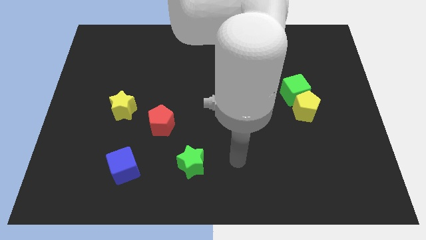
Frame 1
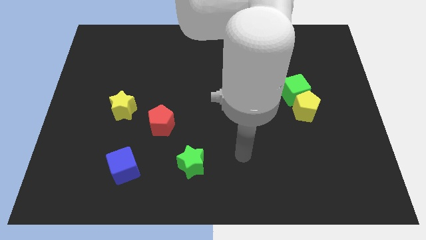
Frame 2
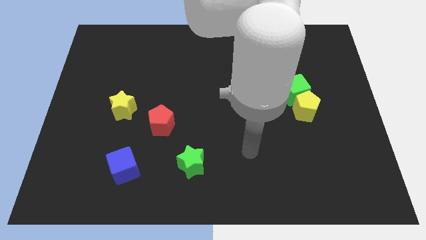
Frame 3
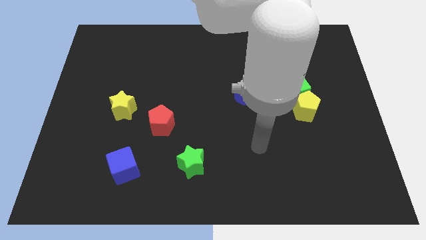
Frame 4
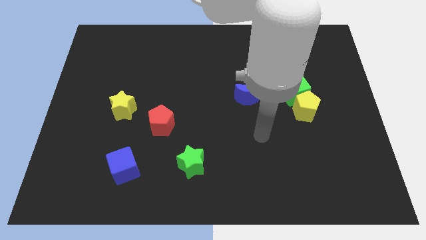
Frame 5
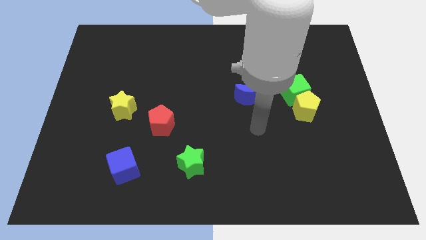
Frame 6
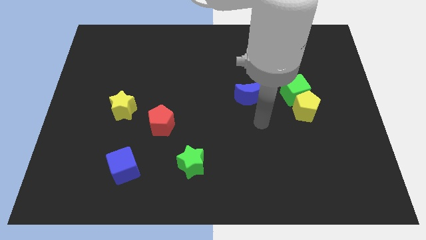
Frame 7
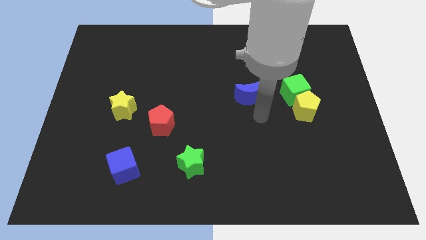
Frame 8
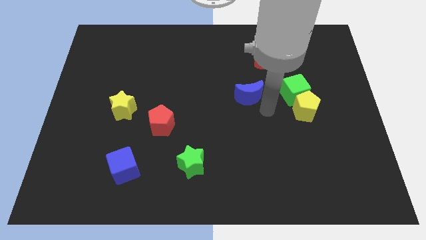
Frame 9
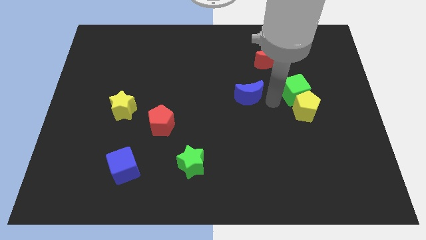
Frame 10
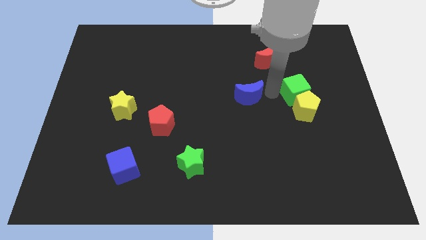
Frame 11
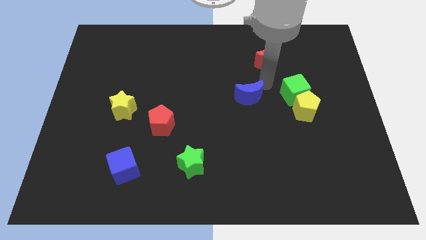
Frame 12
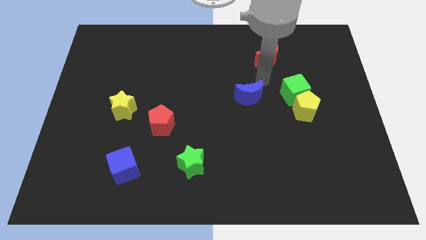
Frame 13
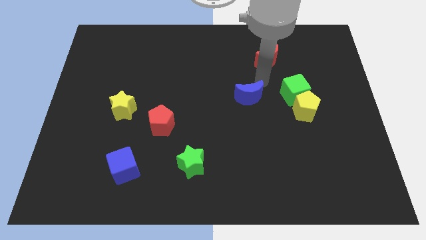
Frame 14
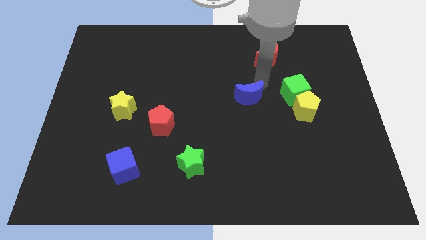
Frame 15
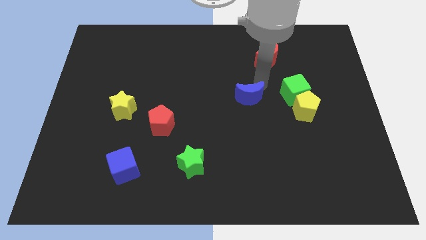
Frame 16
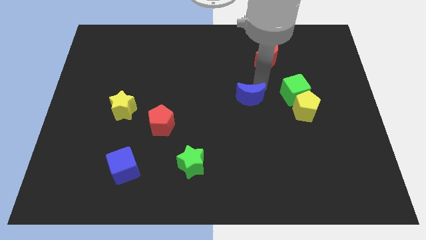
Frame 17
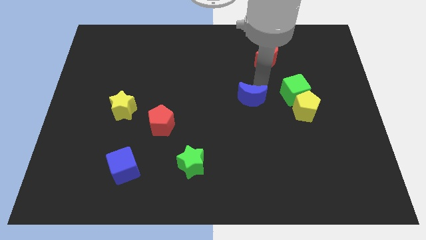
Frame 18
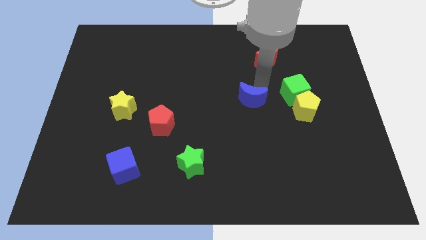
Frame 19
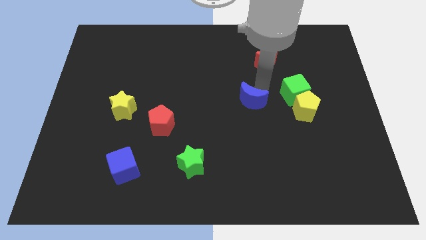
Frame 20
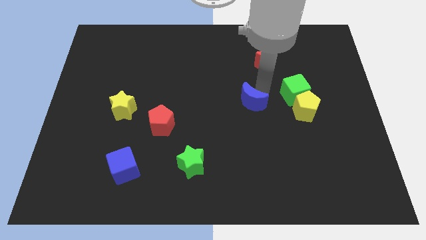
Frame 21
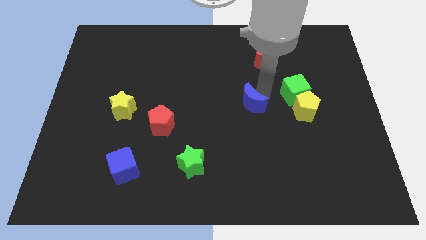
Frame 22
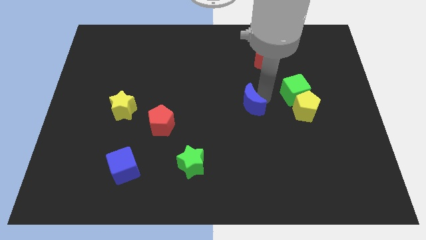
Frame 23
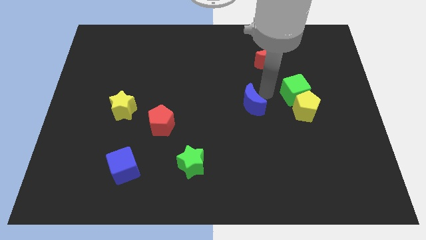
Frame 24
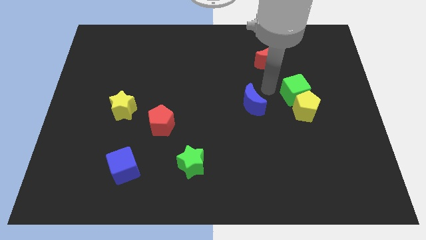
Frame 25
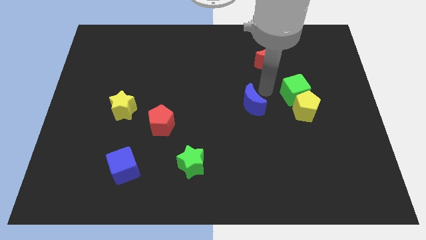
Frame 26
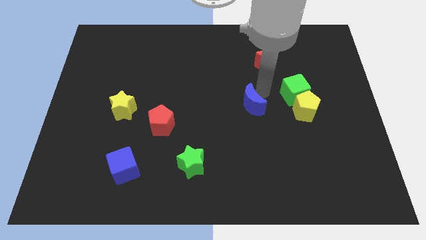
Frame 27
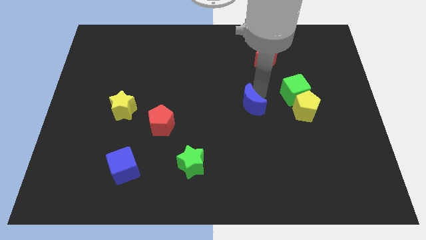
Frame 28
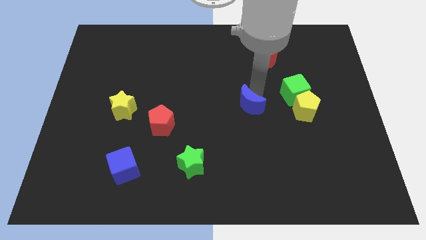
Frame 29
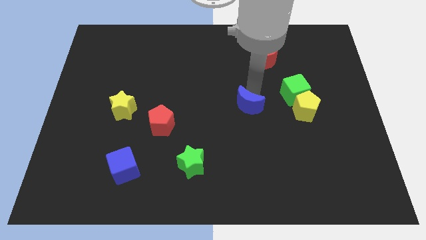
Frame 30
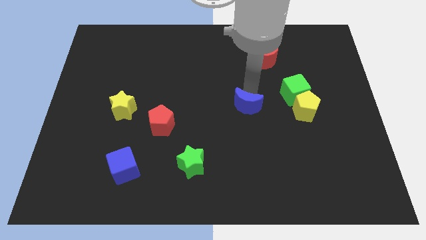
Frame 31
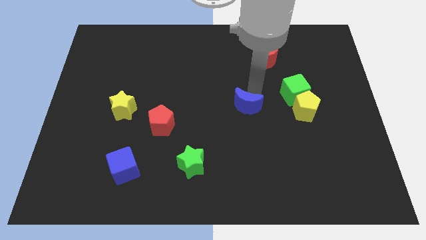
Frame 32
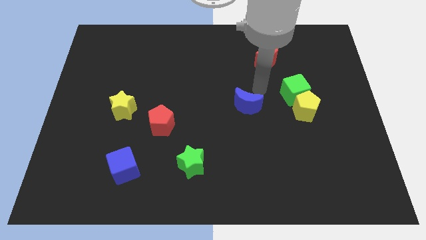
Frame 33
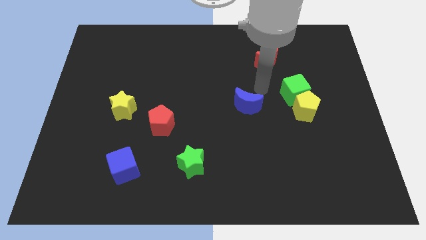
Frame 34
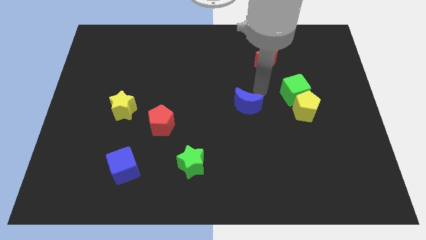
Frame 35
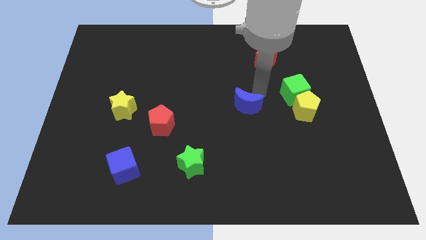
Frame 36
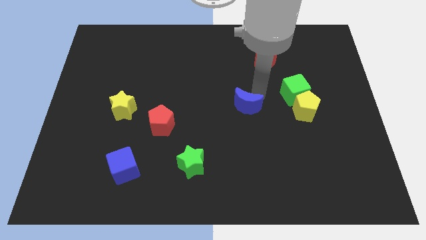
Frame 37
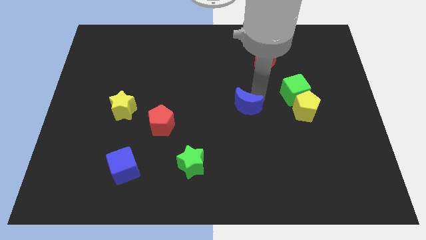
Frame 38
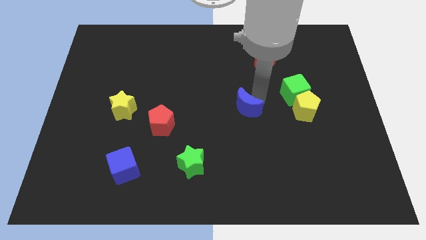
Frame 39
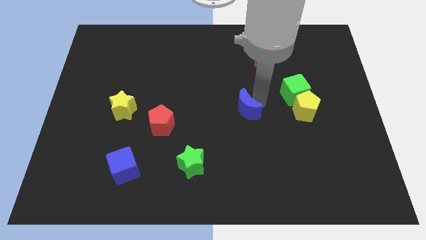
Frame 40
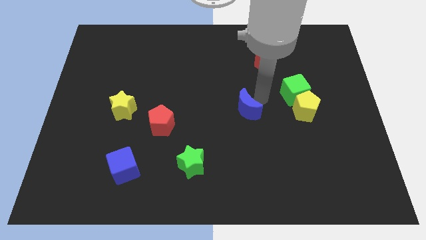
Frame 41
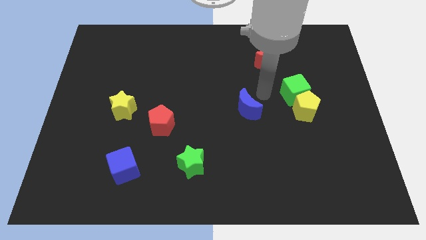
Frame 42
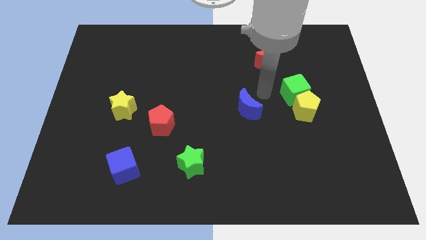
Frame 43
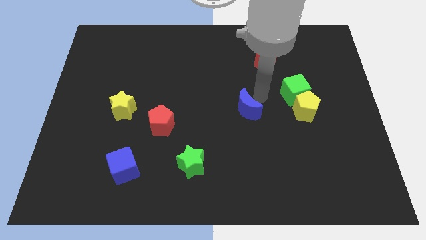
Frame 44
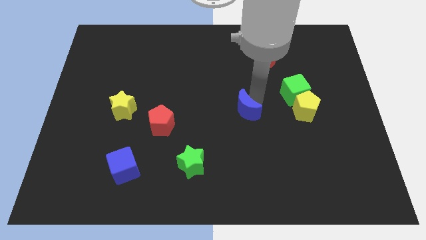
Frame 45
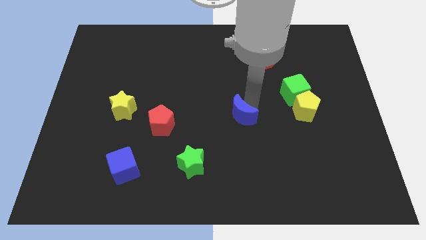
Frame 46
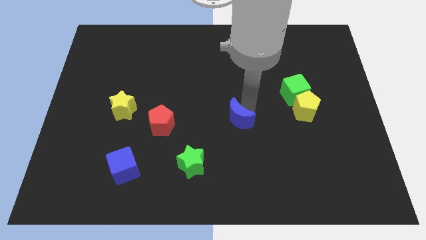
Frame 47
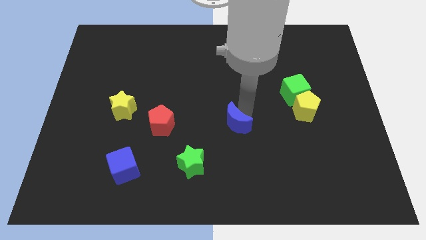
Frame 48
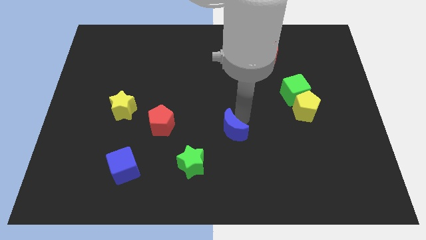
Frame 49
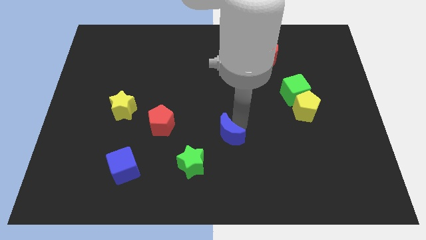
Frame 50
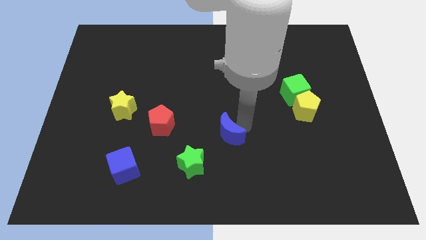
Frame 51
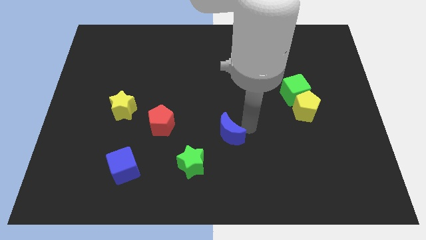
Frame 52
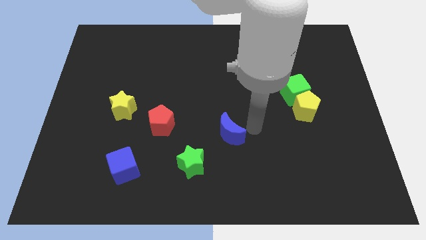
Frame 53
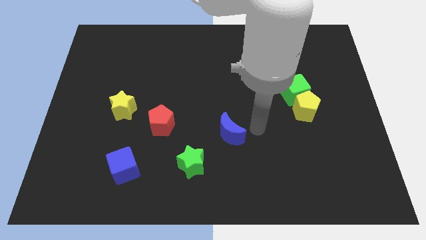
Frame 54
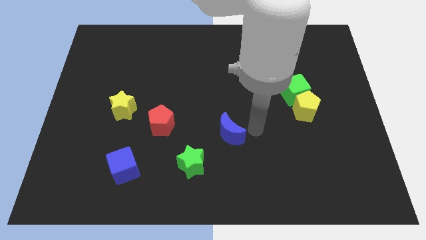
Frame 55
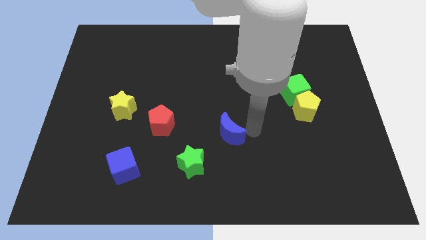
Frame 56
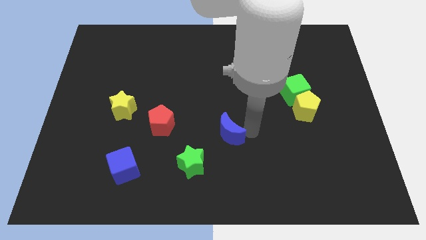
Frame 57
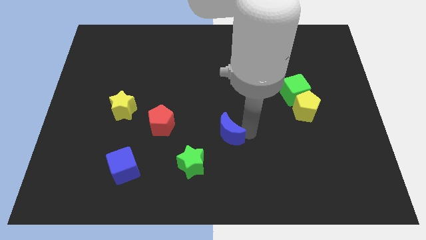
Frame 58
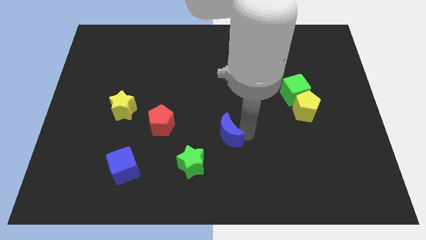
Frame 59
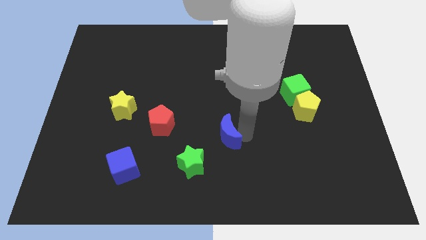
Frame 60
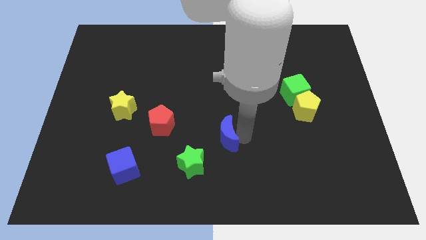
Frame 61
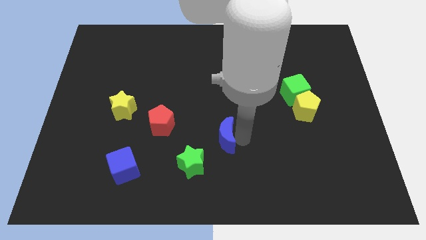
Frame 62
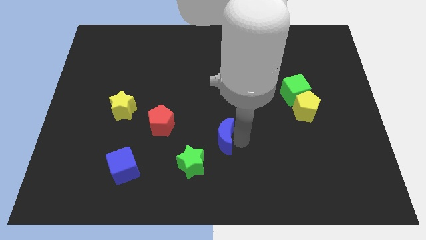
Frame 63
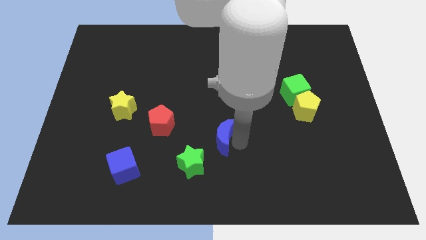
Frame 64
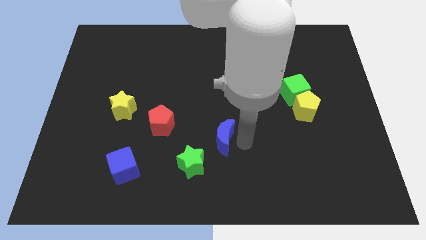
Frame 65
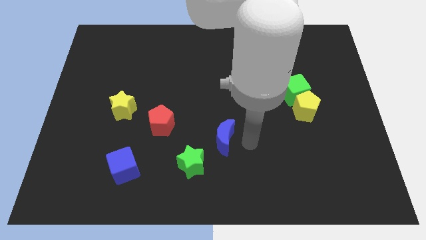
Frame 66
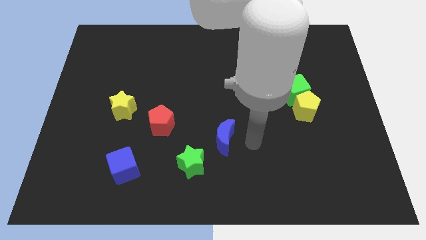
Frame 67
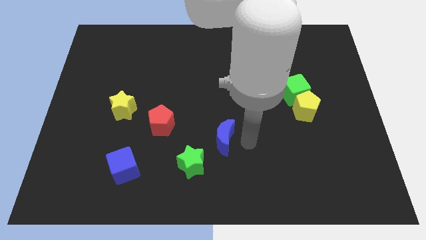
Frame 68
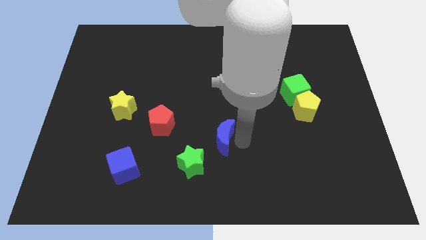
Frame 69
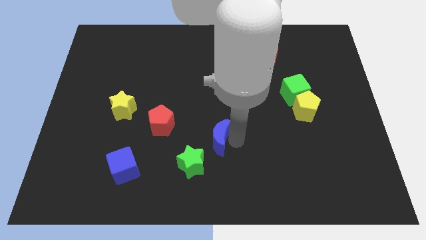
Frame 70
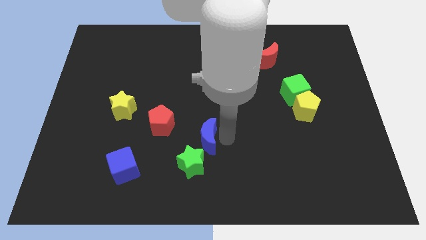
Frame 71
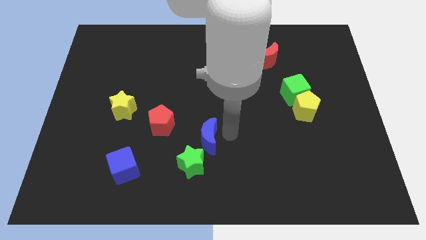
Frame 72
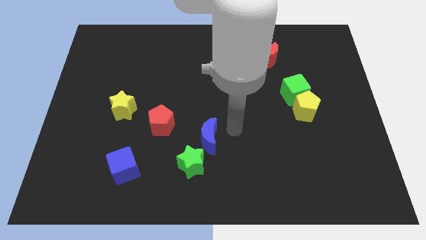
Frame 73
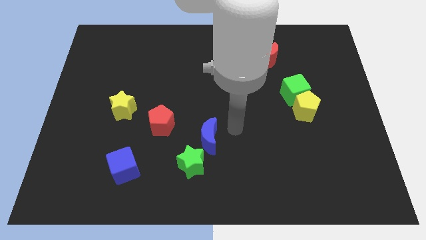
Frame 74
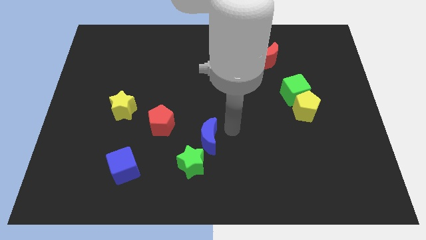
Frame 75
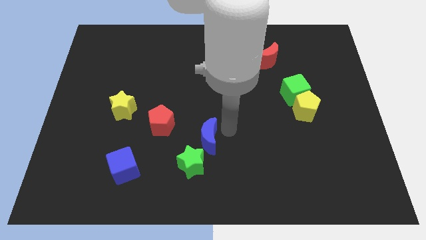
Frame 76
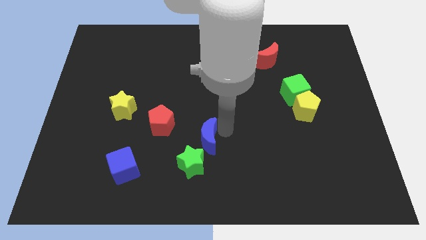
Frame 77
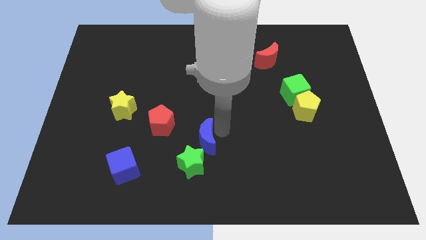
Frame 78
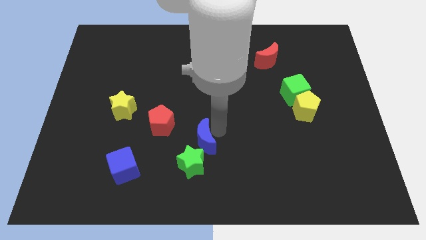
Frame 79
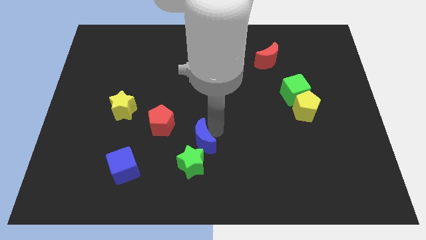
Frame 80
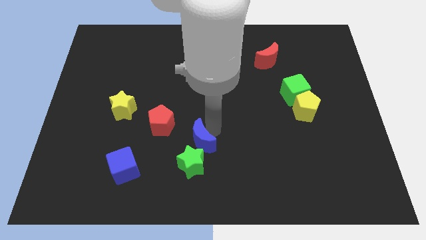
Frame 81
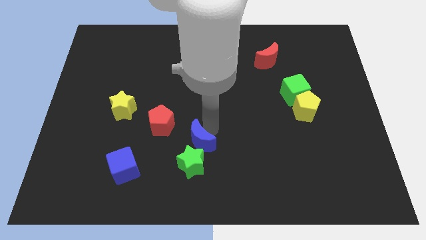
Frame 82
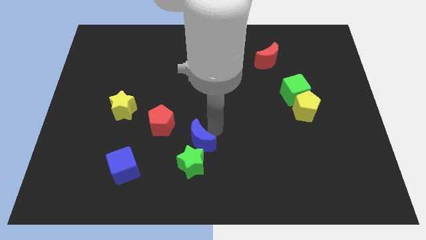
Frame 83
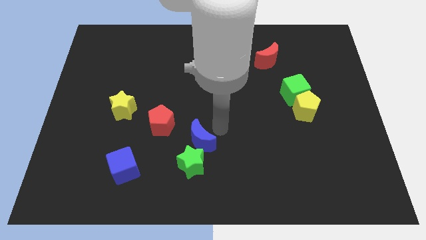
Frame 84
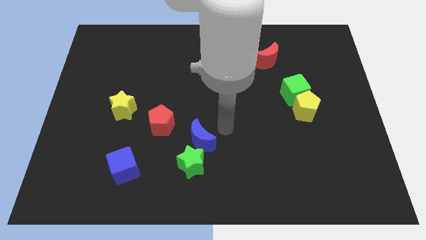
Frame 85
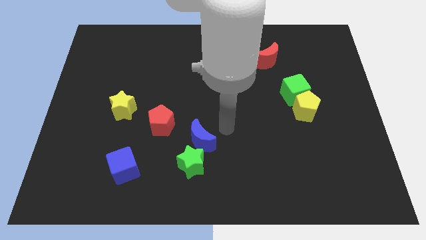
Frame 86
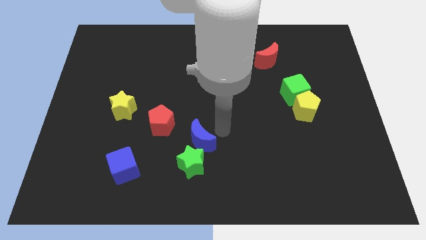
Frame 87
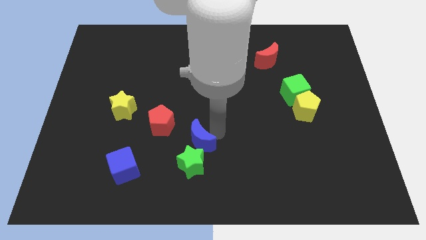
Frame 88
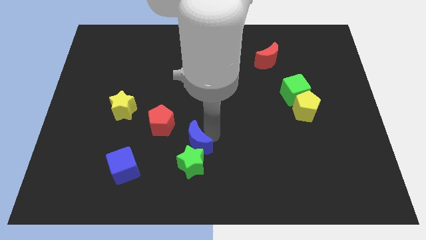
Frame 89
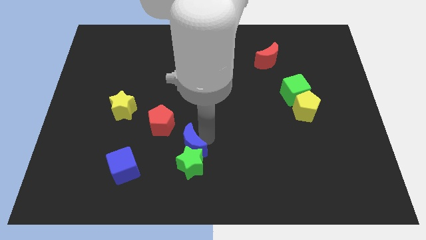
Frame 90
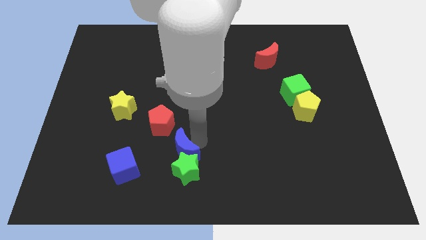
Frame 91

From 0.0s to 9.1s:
move the blue moon down and then left
